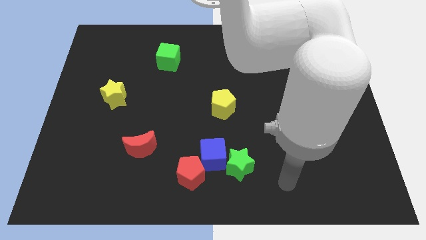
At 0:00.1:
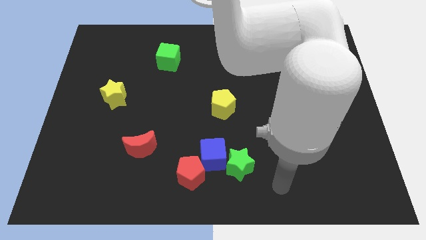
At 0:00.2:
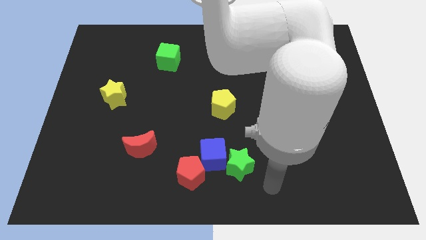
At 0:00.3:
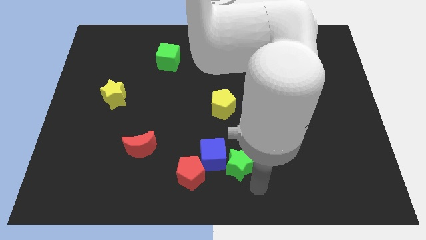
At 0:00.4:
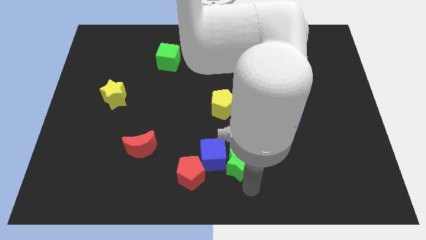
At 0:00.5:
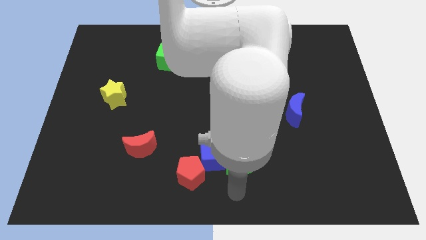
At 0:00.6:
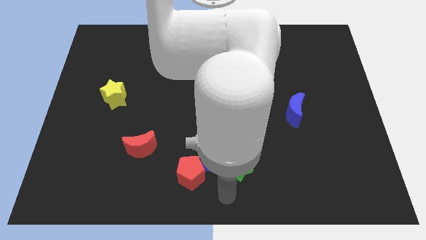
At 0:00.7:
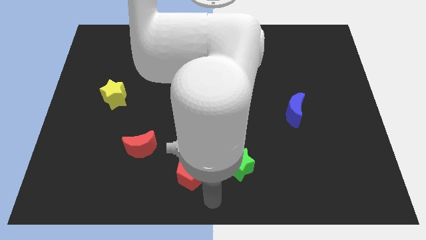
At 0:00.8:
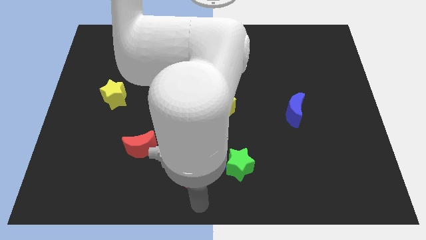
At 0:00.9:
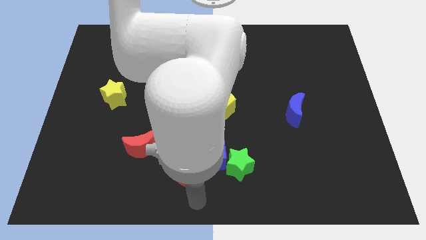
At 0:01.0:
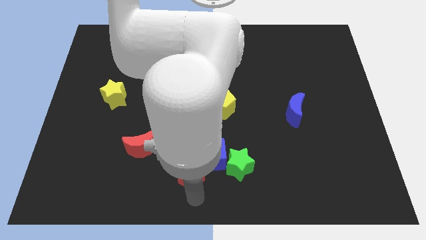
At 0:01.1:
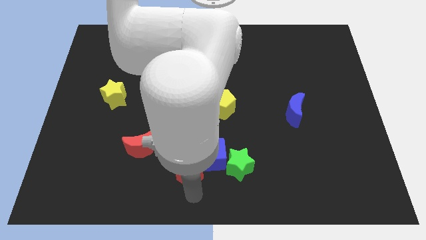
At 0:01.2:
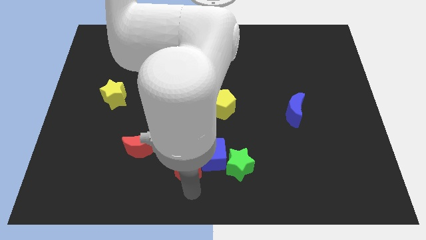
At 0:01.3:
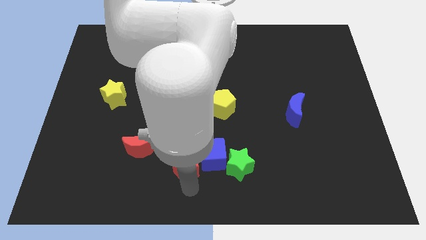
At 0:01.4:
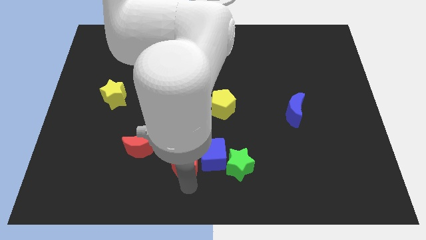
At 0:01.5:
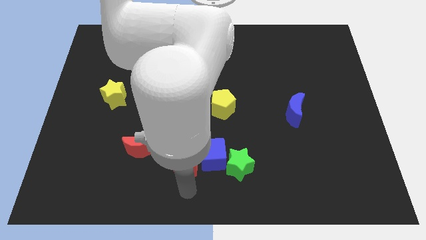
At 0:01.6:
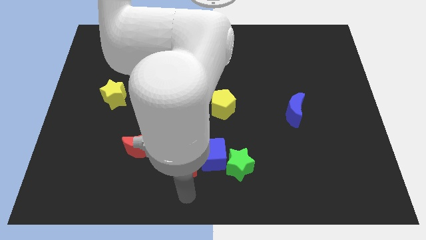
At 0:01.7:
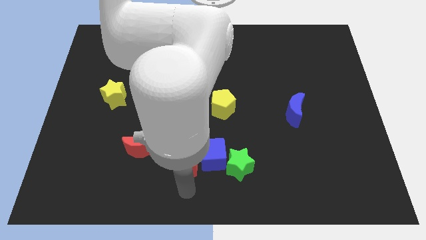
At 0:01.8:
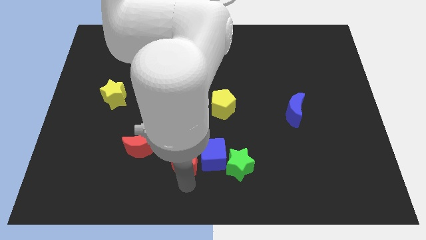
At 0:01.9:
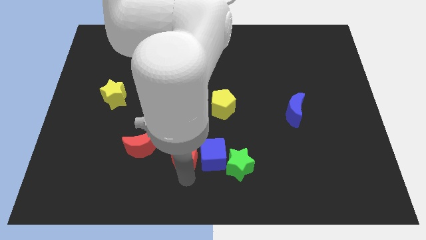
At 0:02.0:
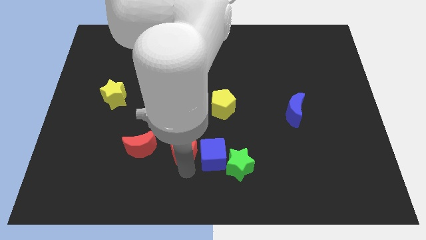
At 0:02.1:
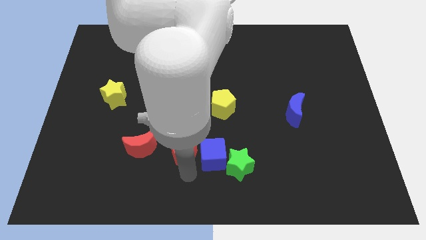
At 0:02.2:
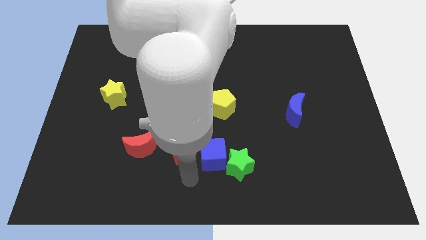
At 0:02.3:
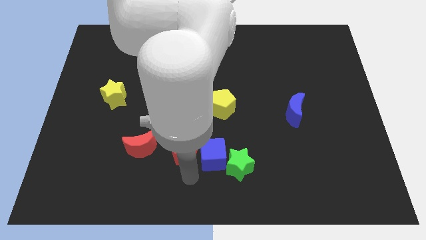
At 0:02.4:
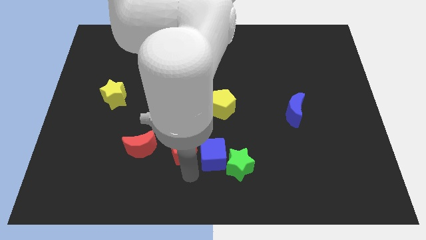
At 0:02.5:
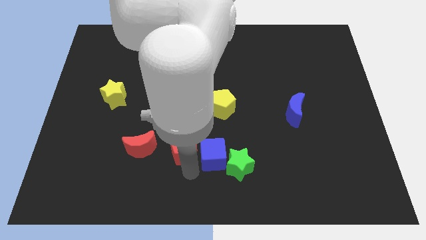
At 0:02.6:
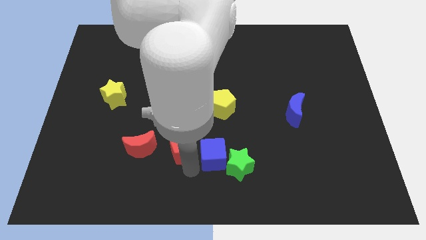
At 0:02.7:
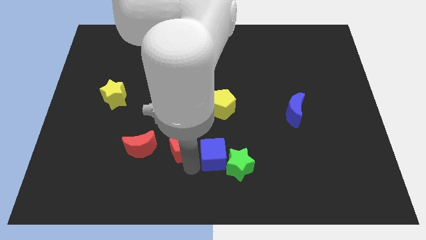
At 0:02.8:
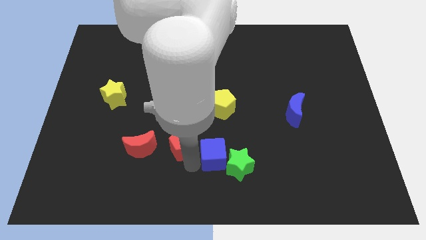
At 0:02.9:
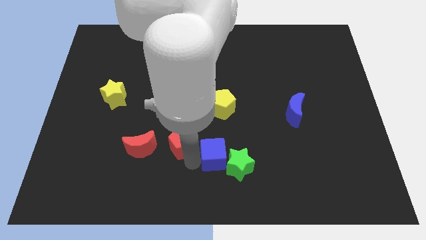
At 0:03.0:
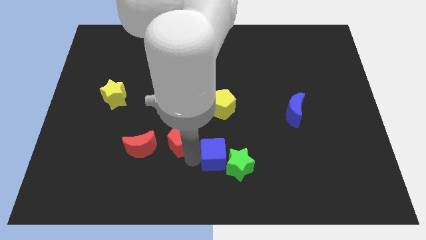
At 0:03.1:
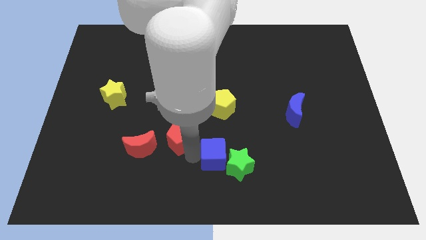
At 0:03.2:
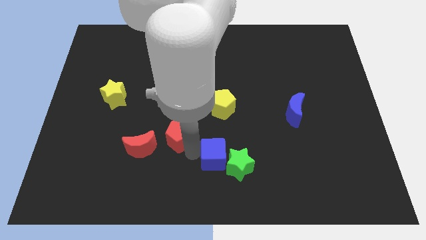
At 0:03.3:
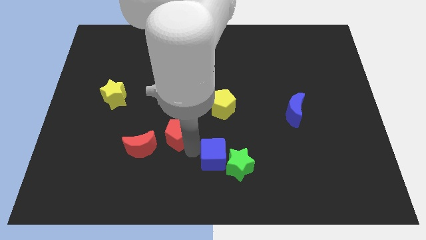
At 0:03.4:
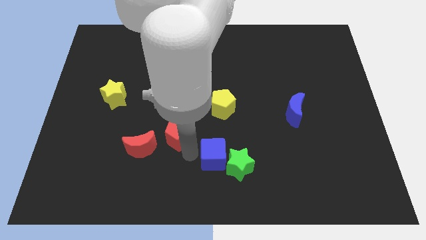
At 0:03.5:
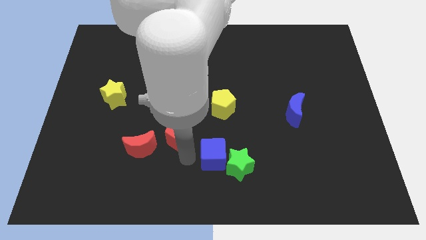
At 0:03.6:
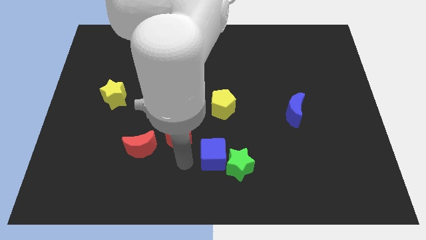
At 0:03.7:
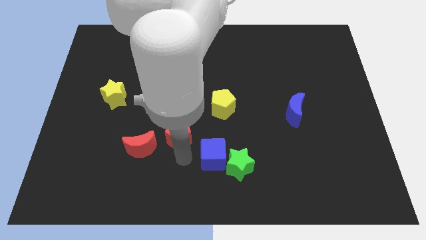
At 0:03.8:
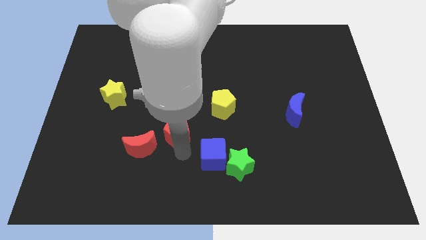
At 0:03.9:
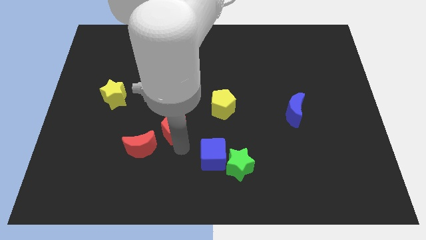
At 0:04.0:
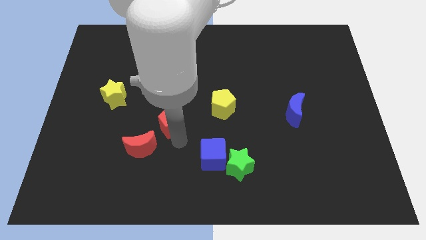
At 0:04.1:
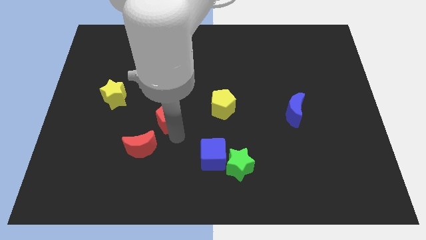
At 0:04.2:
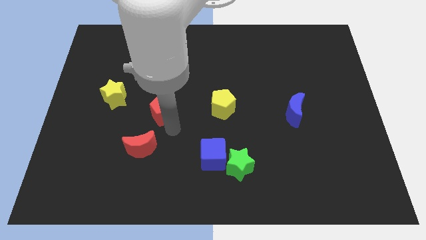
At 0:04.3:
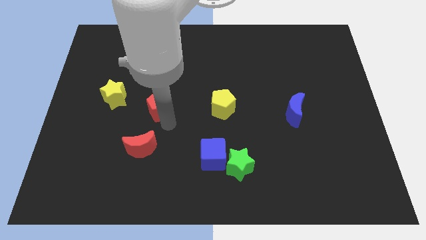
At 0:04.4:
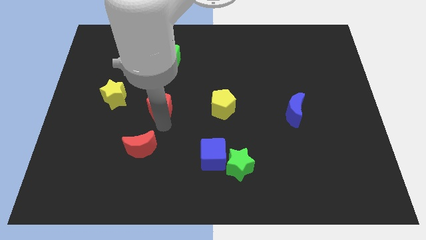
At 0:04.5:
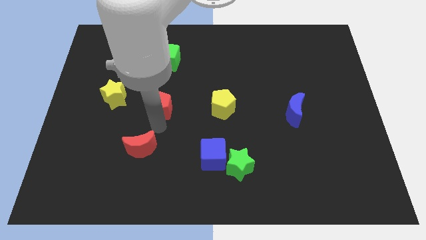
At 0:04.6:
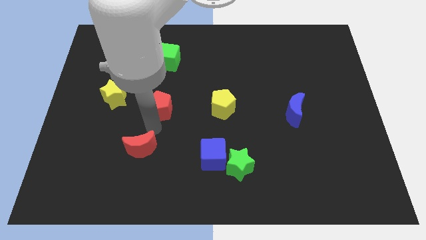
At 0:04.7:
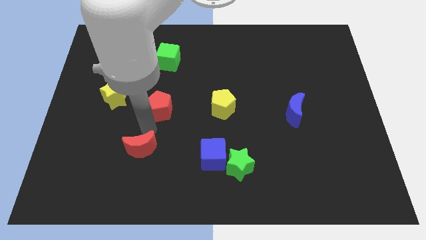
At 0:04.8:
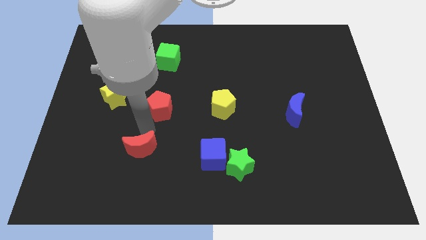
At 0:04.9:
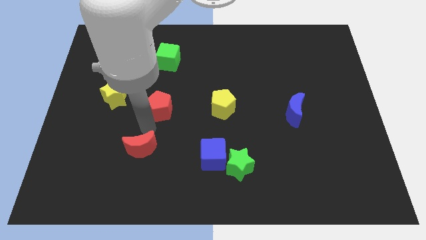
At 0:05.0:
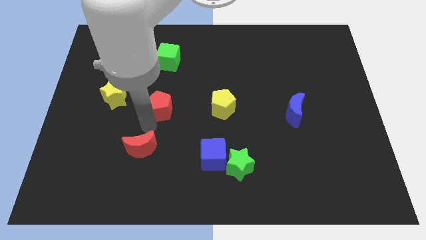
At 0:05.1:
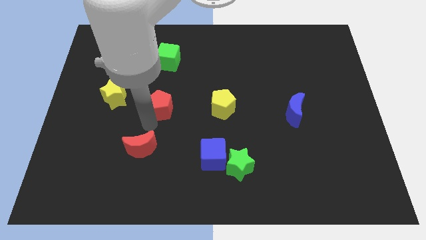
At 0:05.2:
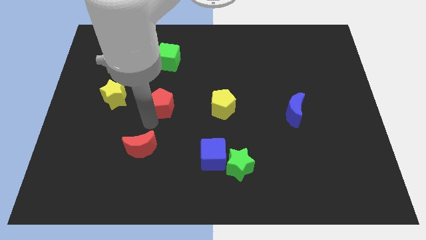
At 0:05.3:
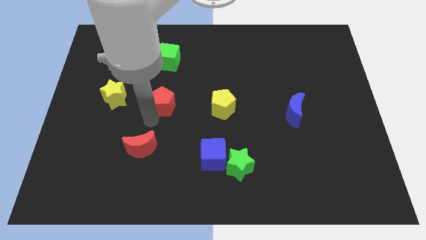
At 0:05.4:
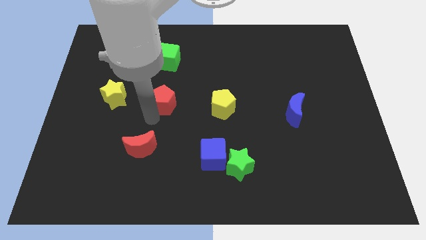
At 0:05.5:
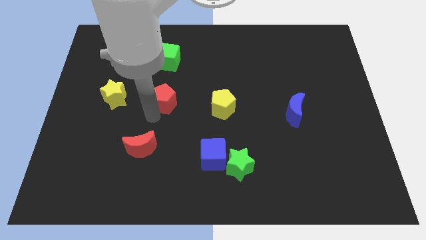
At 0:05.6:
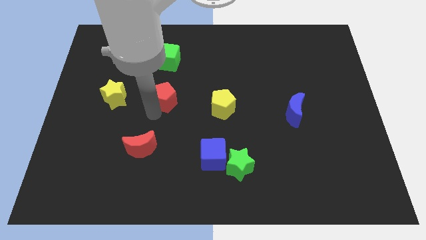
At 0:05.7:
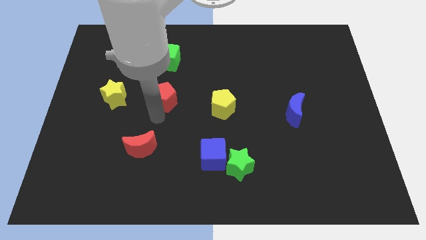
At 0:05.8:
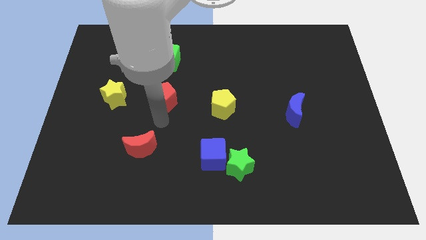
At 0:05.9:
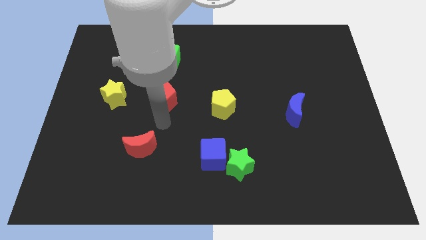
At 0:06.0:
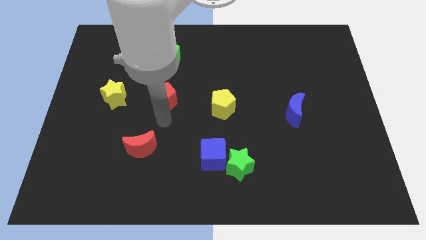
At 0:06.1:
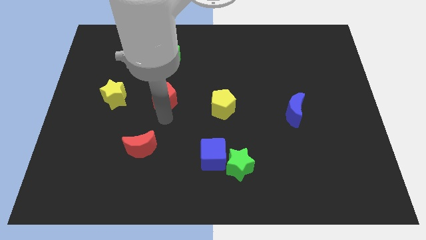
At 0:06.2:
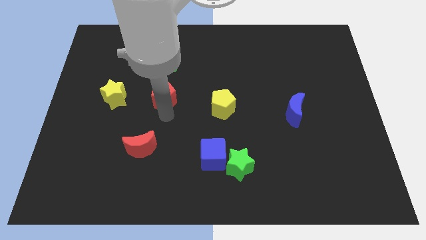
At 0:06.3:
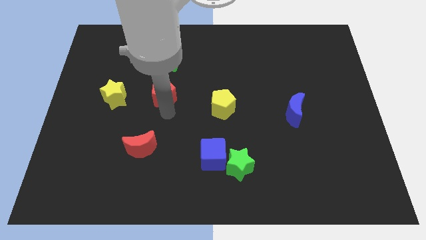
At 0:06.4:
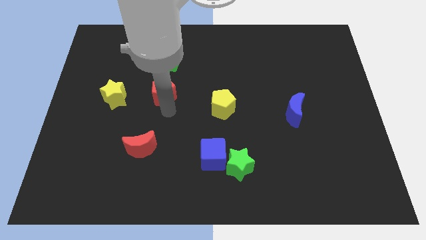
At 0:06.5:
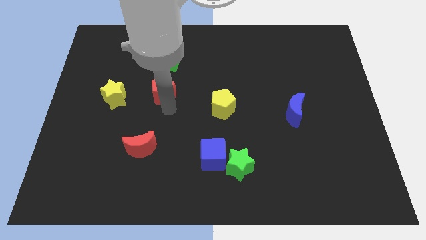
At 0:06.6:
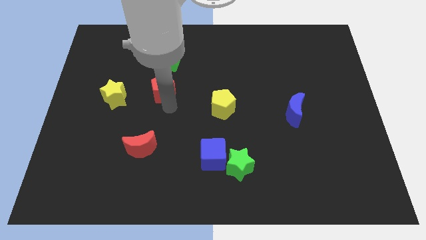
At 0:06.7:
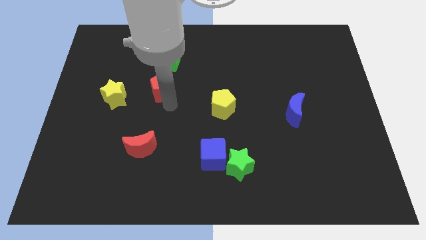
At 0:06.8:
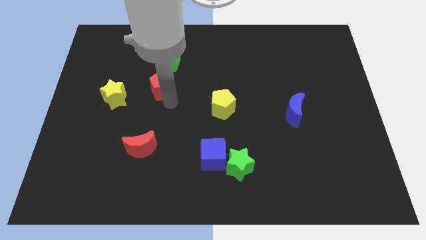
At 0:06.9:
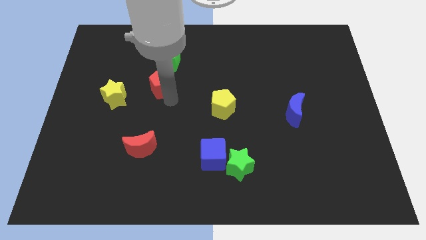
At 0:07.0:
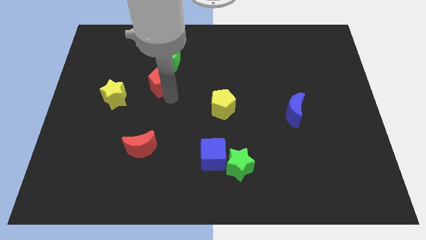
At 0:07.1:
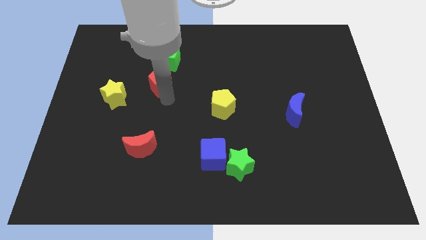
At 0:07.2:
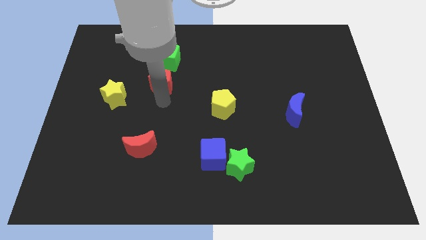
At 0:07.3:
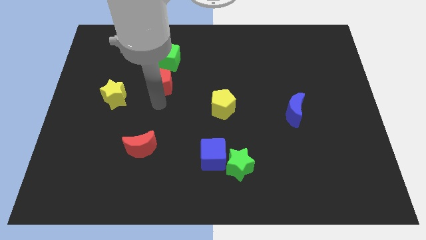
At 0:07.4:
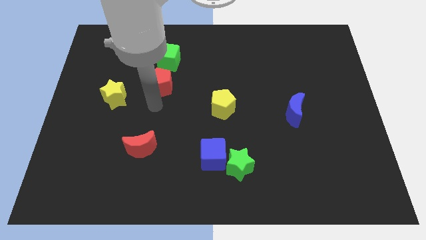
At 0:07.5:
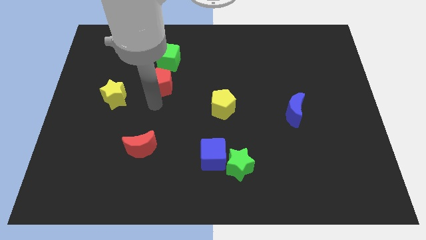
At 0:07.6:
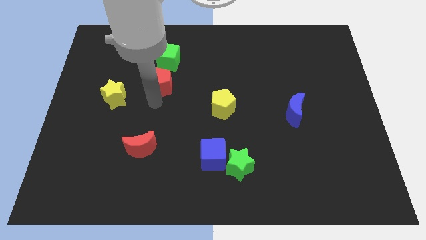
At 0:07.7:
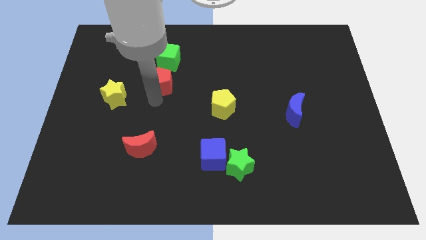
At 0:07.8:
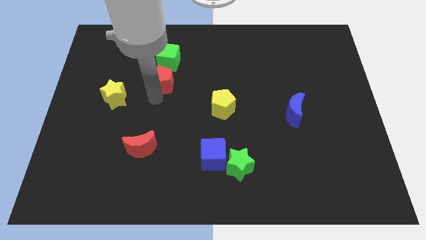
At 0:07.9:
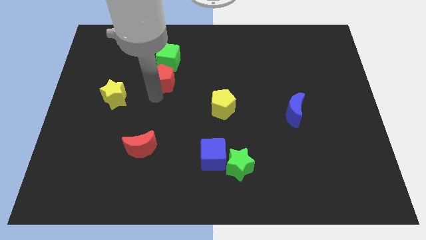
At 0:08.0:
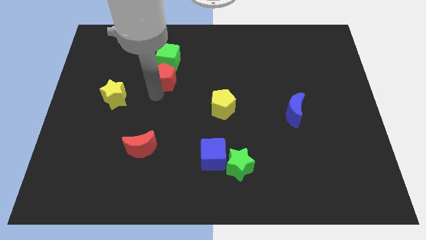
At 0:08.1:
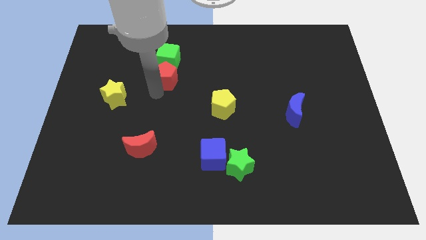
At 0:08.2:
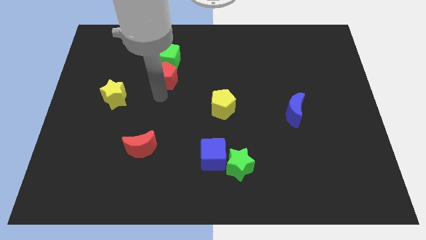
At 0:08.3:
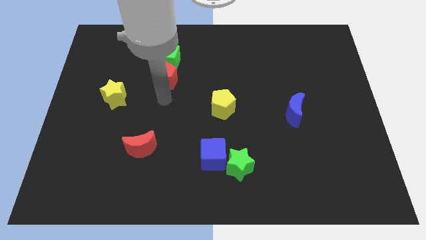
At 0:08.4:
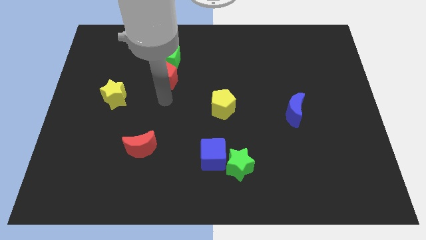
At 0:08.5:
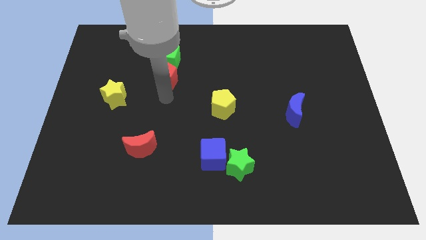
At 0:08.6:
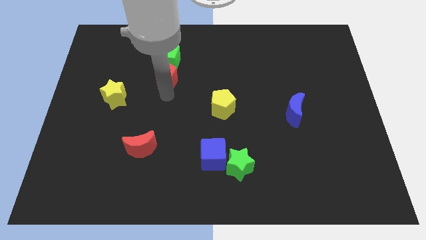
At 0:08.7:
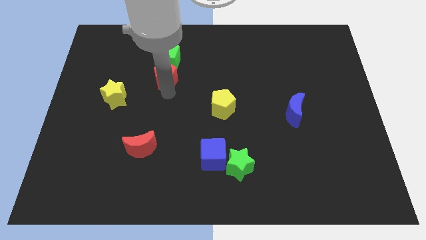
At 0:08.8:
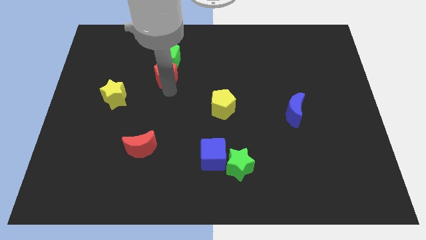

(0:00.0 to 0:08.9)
slide the red pentagon close to the green cube
